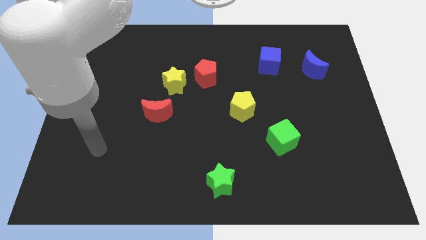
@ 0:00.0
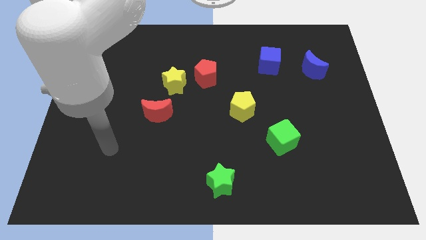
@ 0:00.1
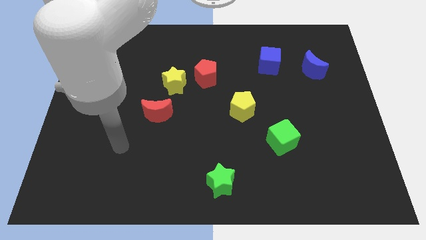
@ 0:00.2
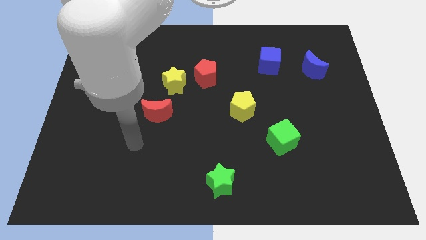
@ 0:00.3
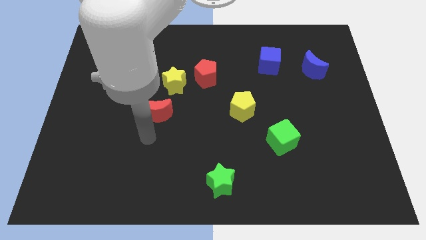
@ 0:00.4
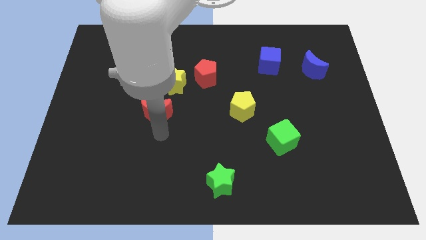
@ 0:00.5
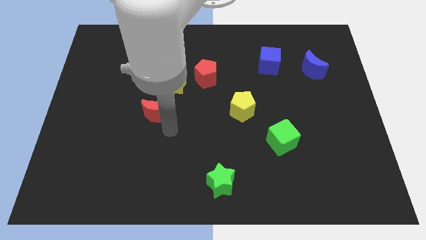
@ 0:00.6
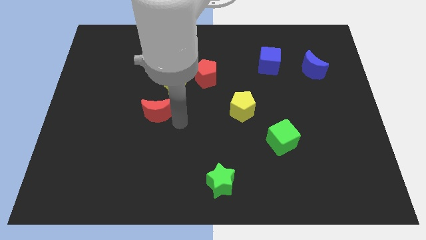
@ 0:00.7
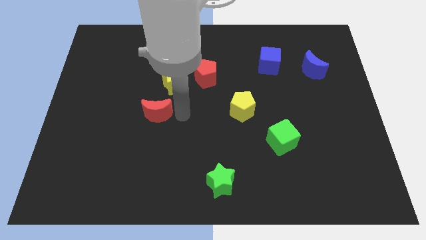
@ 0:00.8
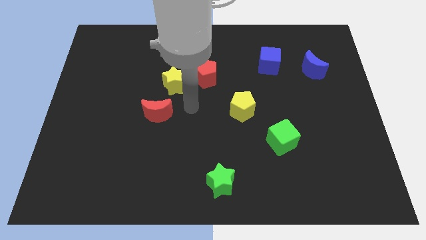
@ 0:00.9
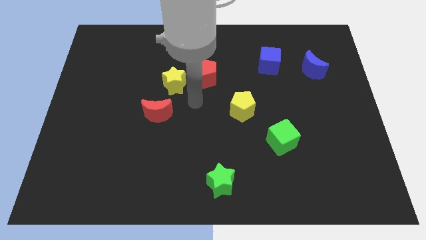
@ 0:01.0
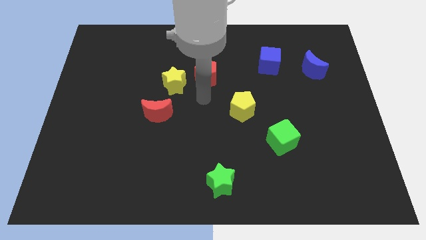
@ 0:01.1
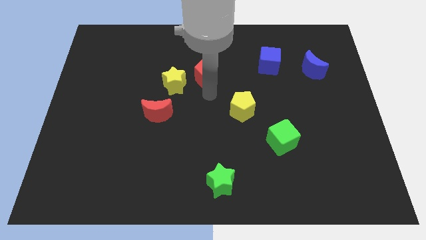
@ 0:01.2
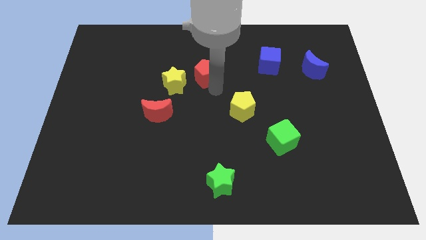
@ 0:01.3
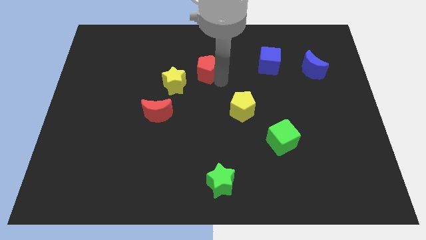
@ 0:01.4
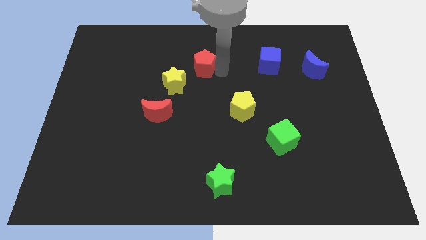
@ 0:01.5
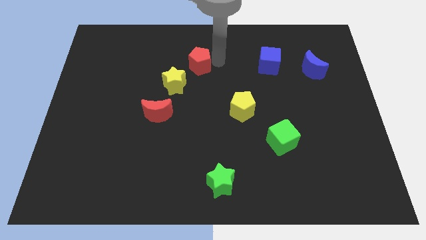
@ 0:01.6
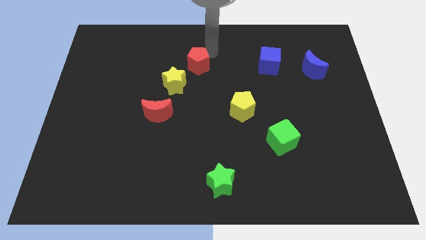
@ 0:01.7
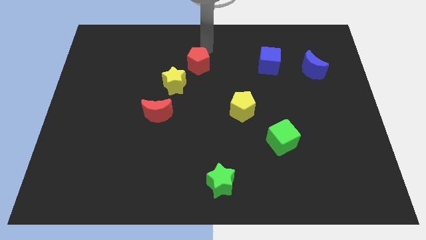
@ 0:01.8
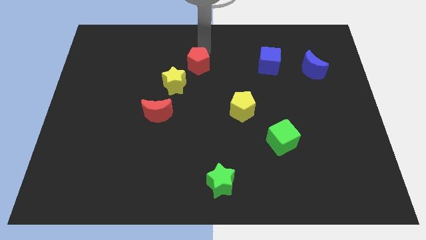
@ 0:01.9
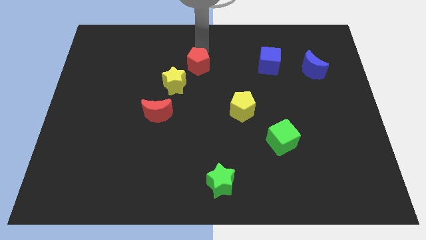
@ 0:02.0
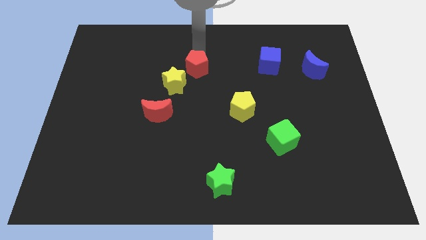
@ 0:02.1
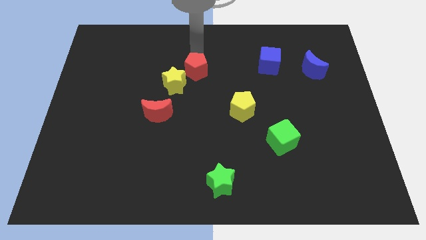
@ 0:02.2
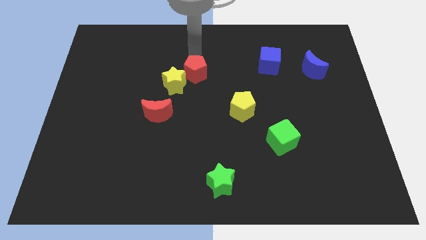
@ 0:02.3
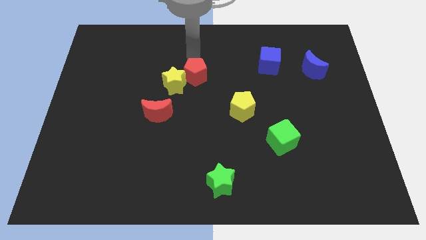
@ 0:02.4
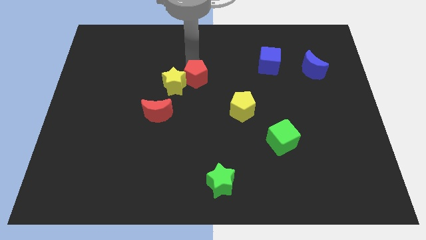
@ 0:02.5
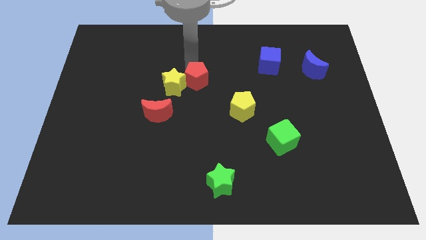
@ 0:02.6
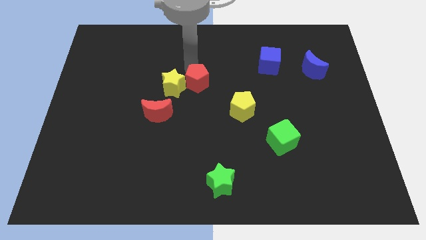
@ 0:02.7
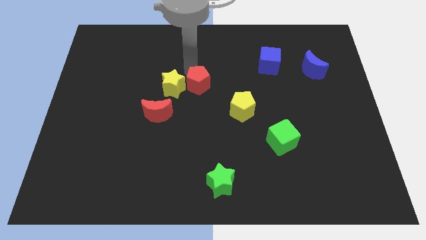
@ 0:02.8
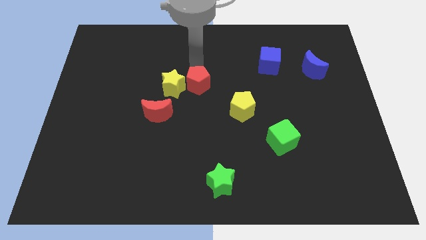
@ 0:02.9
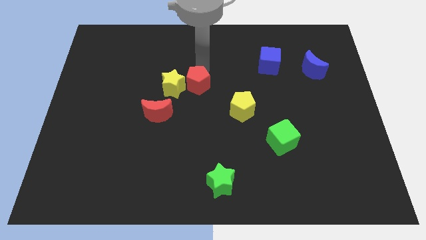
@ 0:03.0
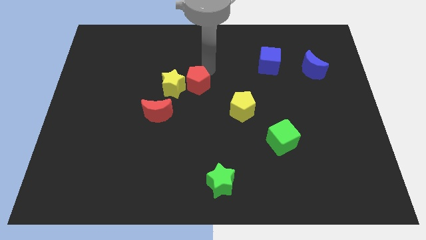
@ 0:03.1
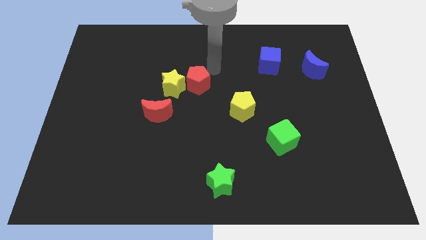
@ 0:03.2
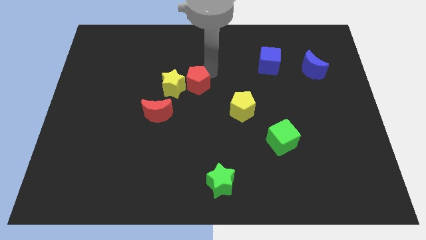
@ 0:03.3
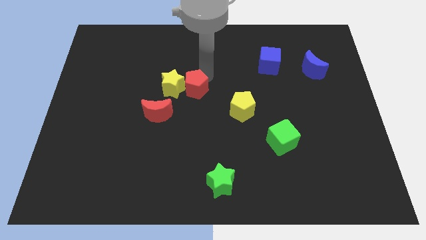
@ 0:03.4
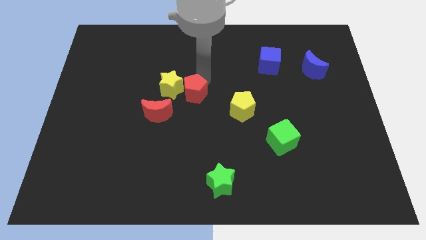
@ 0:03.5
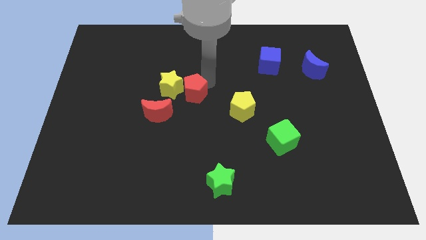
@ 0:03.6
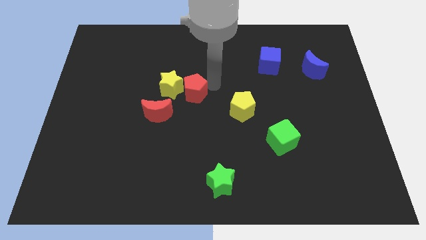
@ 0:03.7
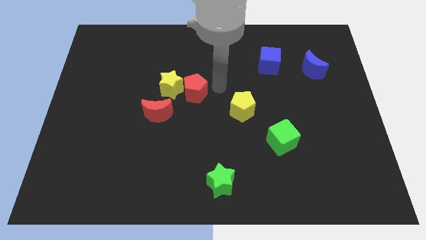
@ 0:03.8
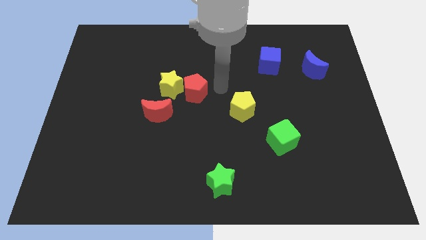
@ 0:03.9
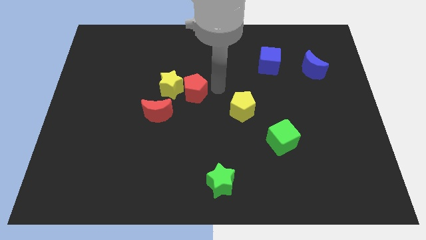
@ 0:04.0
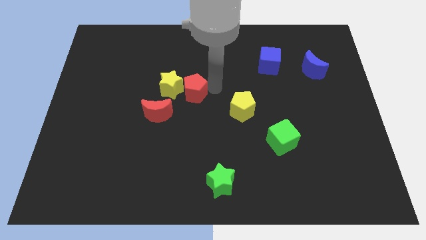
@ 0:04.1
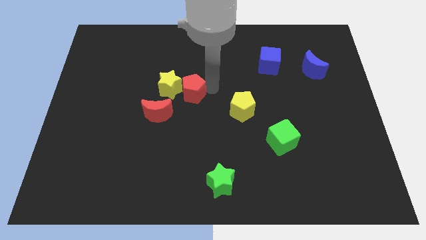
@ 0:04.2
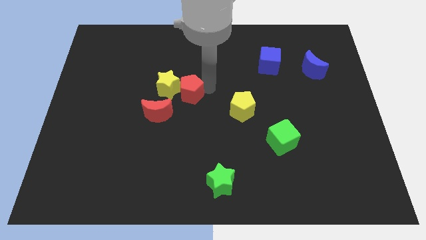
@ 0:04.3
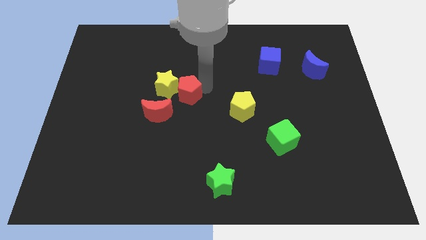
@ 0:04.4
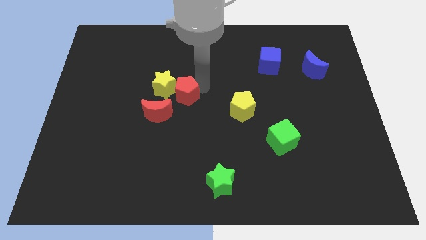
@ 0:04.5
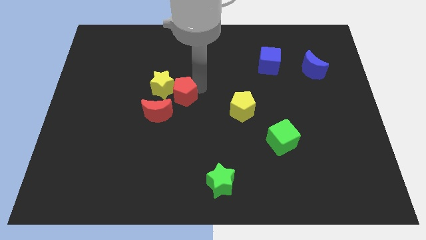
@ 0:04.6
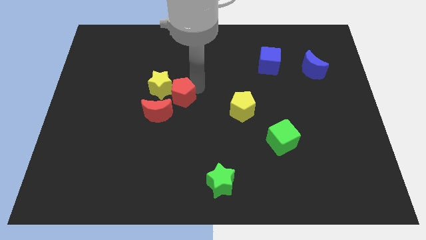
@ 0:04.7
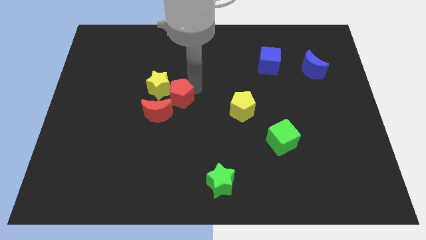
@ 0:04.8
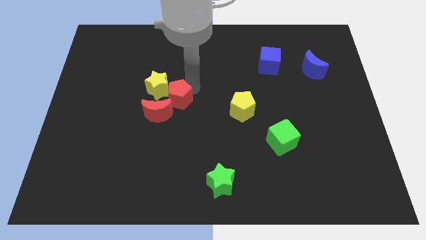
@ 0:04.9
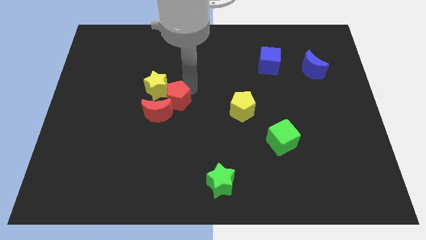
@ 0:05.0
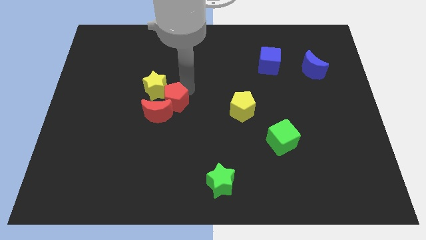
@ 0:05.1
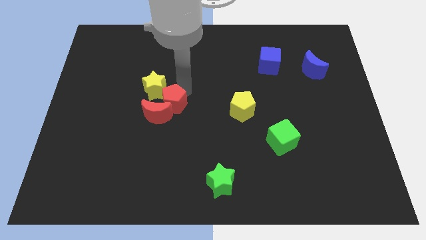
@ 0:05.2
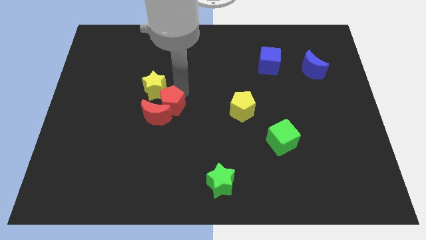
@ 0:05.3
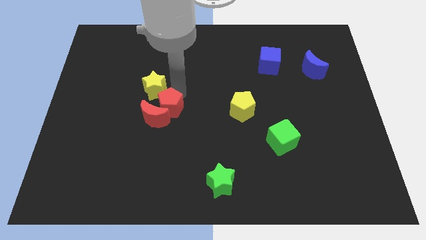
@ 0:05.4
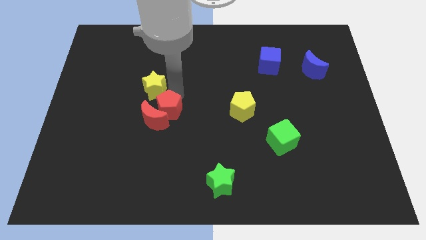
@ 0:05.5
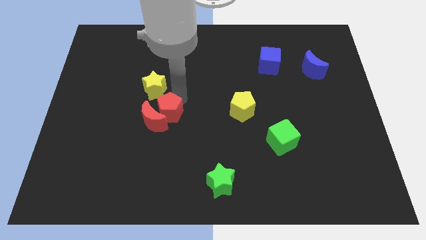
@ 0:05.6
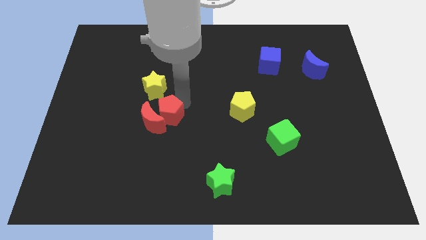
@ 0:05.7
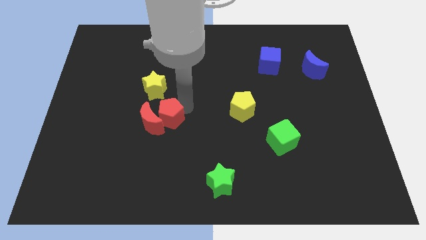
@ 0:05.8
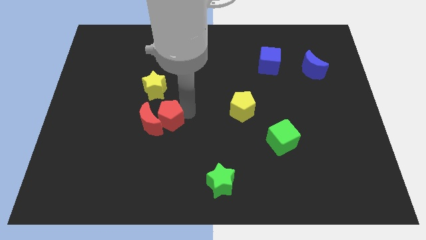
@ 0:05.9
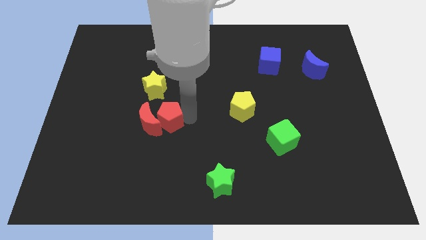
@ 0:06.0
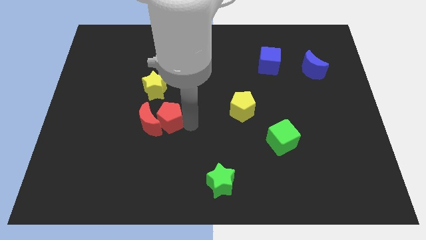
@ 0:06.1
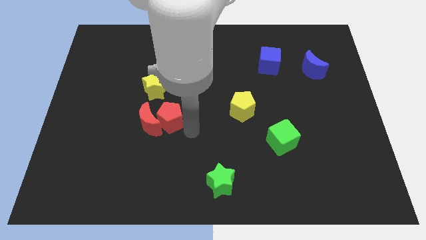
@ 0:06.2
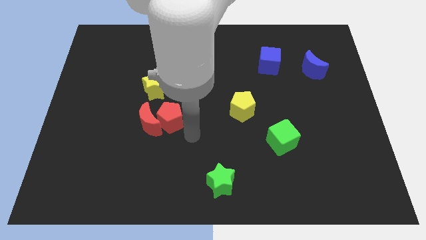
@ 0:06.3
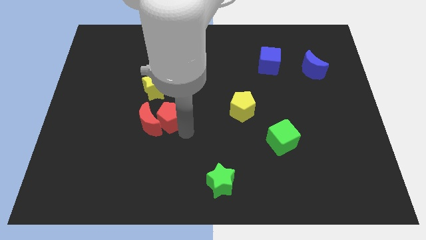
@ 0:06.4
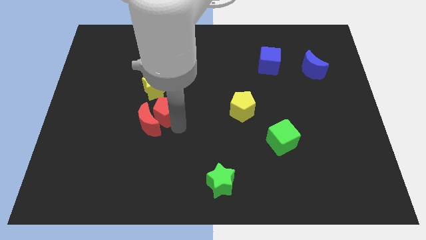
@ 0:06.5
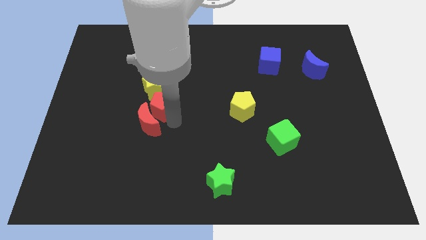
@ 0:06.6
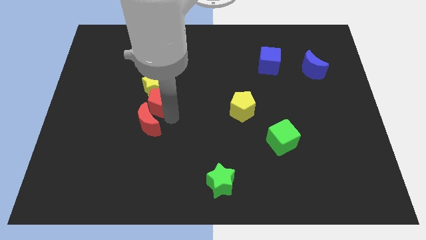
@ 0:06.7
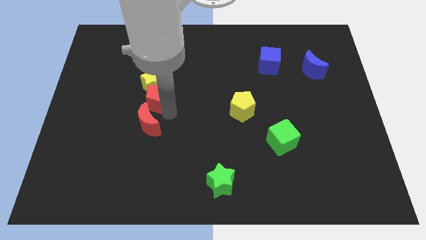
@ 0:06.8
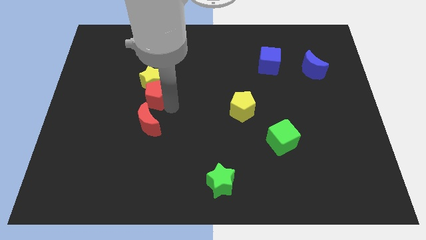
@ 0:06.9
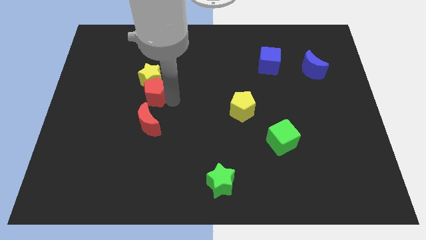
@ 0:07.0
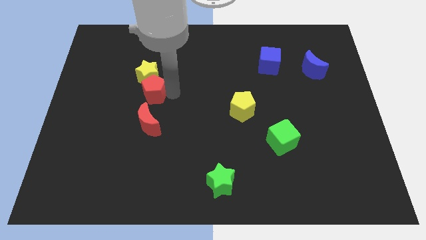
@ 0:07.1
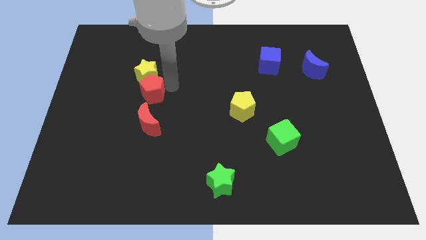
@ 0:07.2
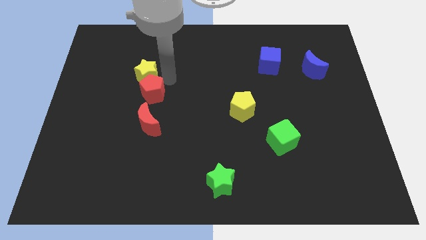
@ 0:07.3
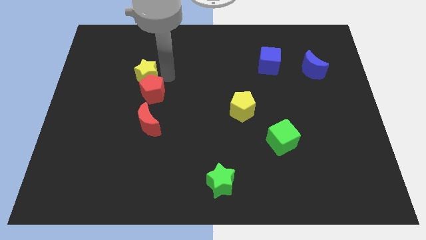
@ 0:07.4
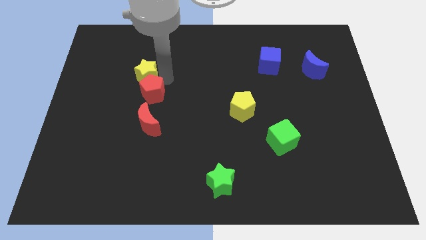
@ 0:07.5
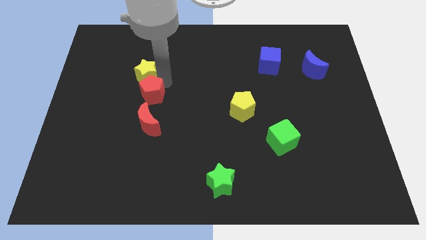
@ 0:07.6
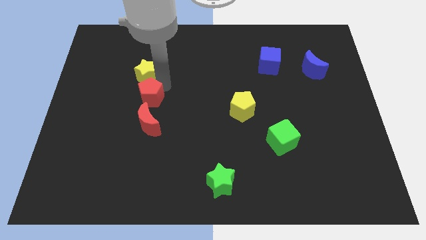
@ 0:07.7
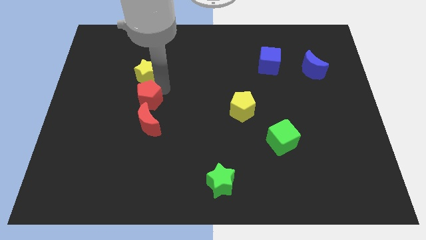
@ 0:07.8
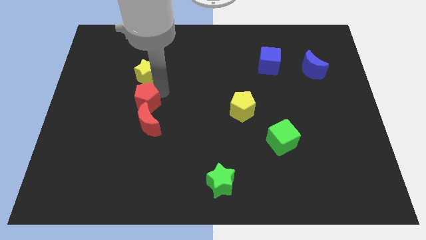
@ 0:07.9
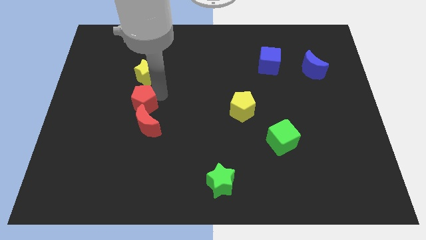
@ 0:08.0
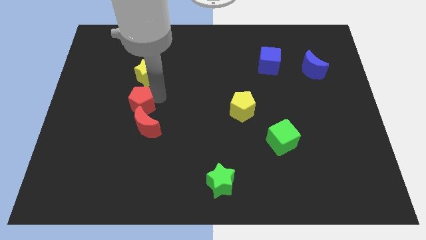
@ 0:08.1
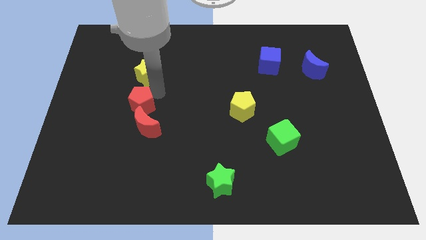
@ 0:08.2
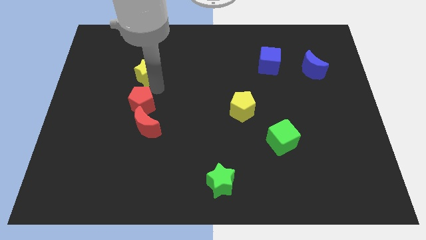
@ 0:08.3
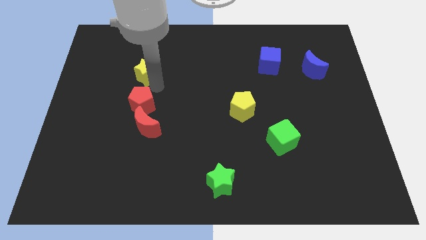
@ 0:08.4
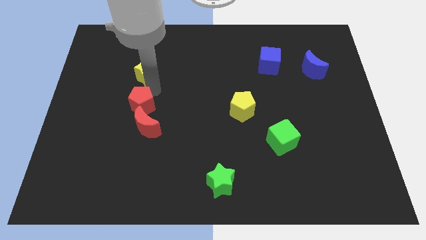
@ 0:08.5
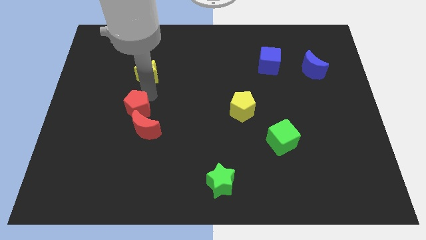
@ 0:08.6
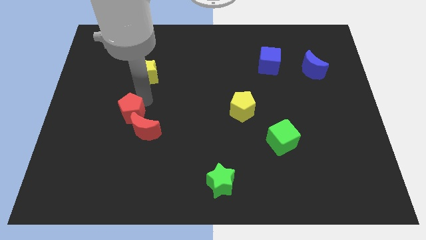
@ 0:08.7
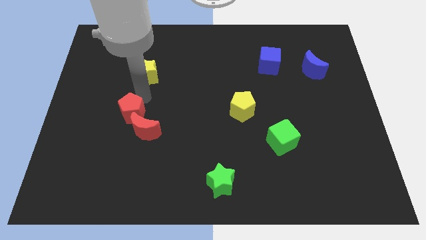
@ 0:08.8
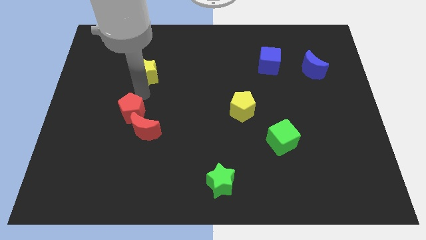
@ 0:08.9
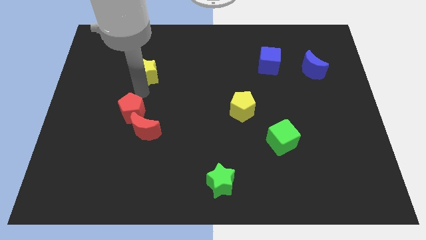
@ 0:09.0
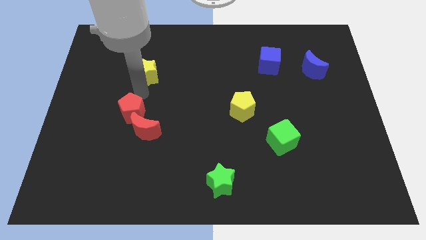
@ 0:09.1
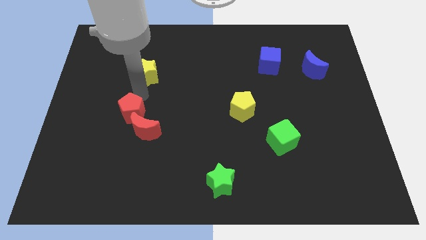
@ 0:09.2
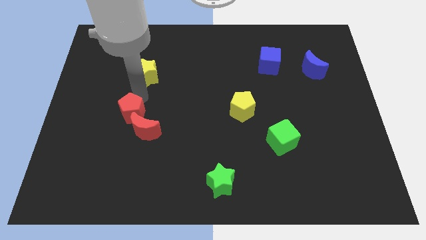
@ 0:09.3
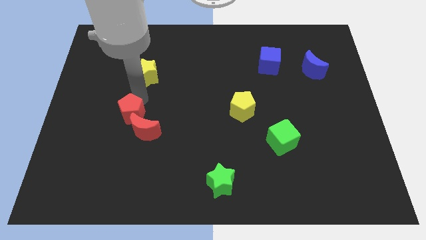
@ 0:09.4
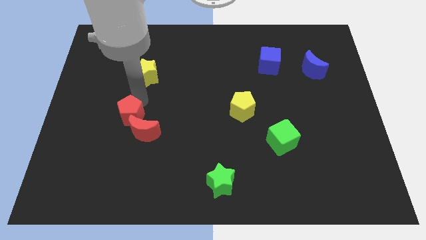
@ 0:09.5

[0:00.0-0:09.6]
slide the red pentagon downwards and left diagonally
